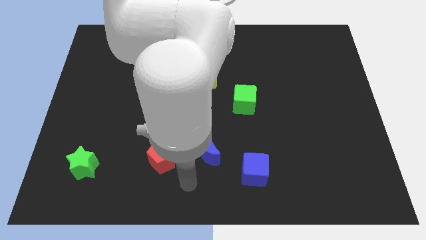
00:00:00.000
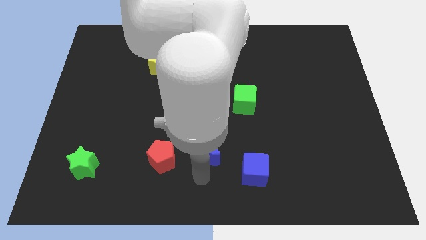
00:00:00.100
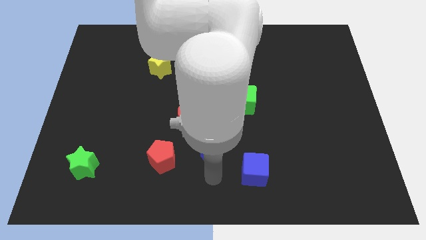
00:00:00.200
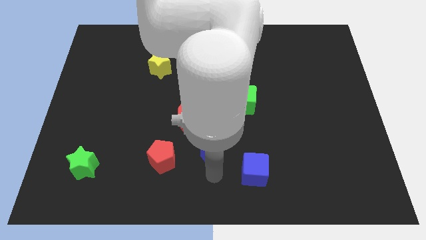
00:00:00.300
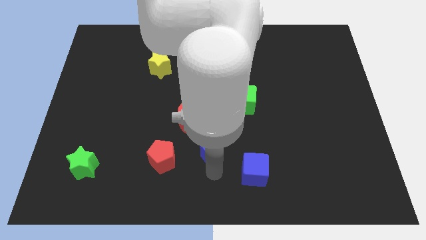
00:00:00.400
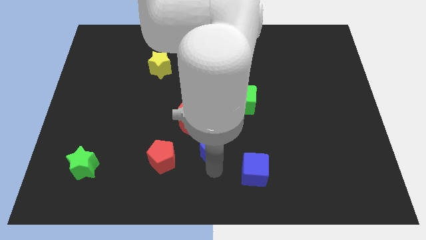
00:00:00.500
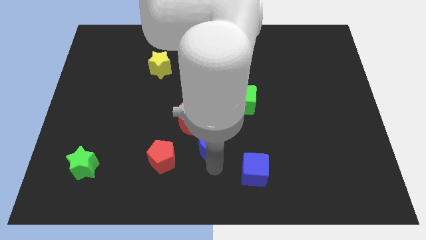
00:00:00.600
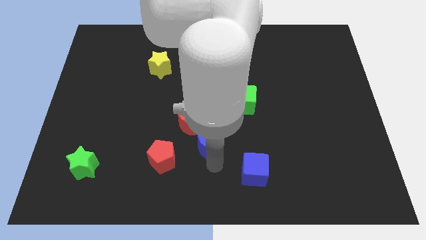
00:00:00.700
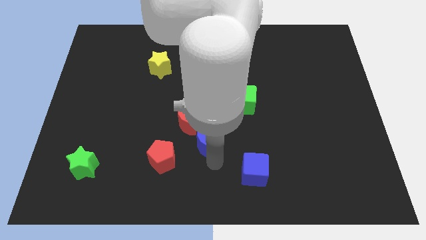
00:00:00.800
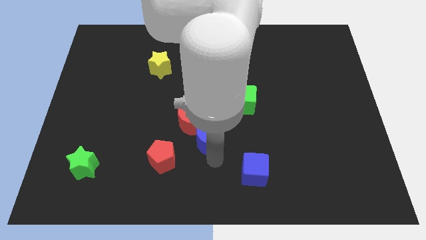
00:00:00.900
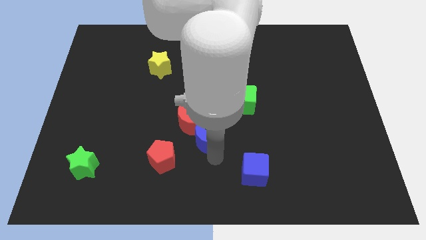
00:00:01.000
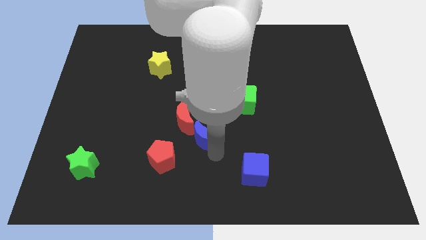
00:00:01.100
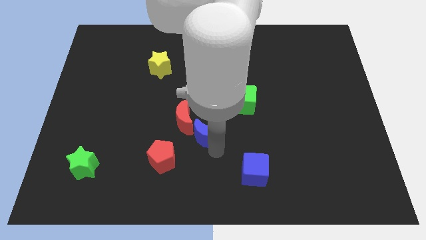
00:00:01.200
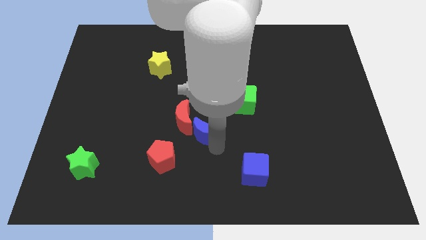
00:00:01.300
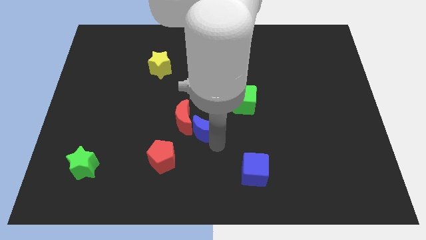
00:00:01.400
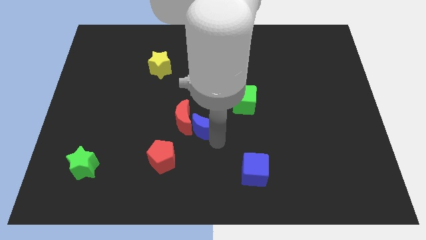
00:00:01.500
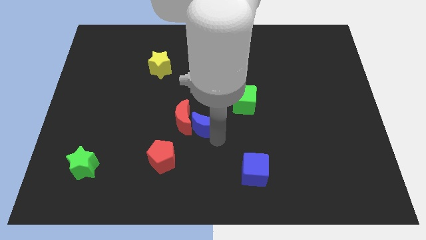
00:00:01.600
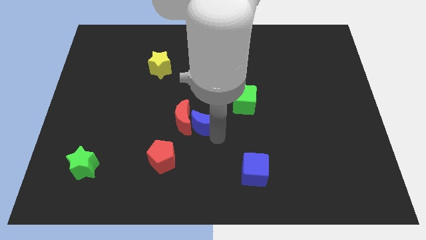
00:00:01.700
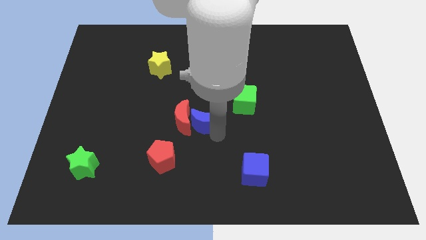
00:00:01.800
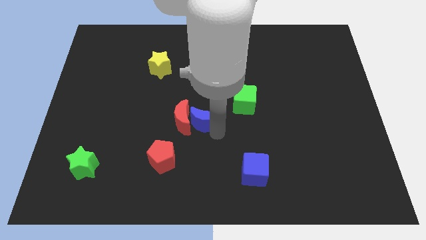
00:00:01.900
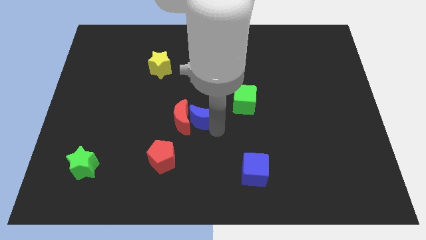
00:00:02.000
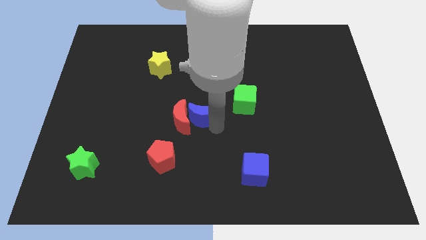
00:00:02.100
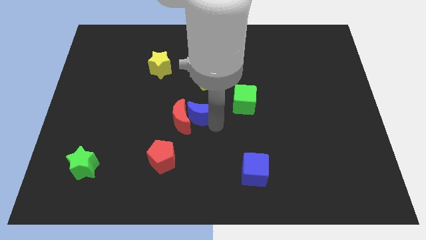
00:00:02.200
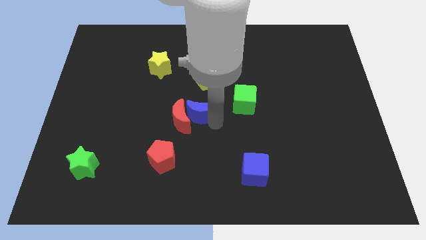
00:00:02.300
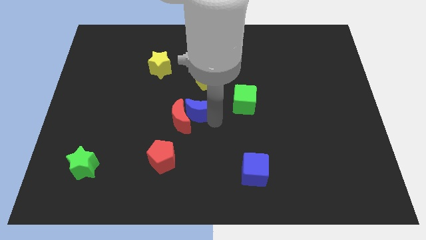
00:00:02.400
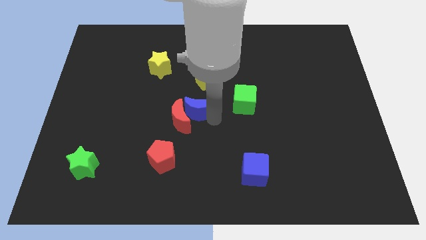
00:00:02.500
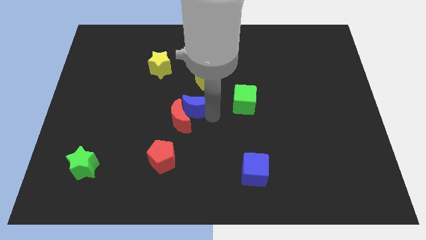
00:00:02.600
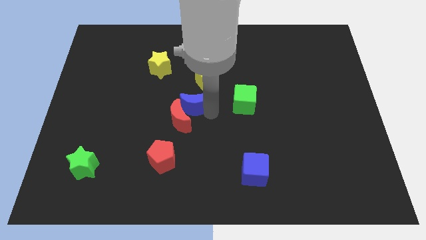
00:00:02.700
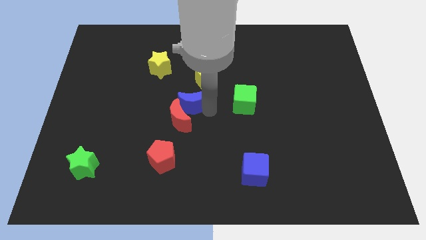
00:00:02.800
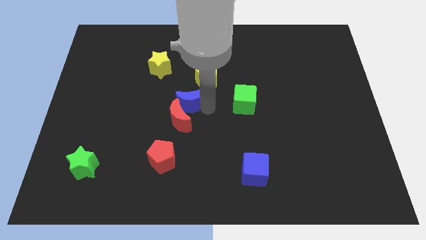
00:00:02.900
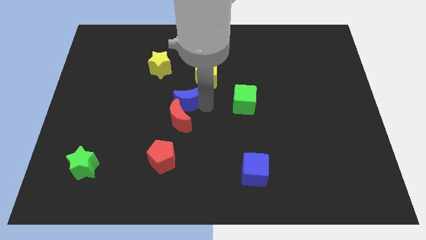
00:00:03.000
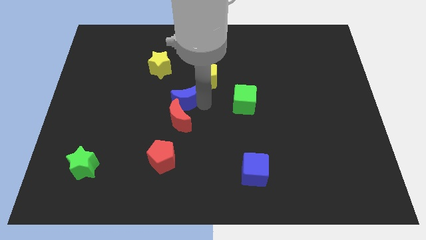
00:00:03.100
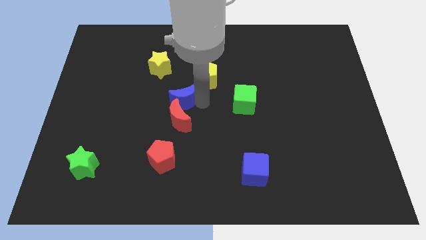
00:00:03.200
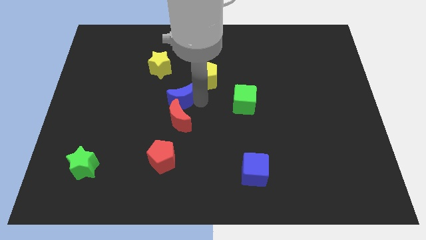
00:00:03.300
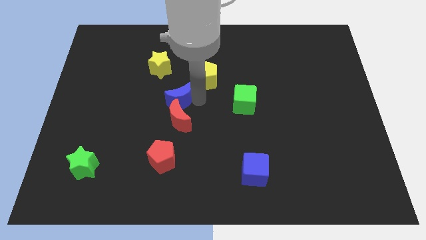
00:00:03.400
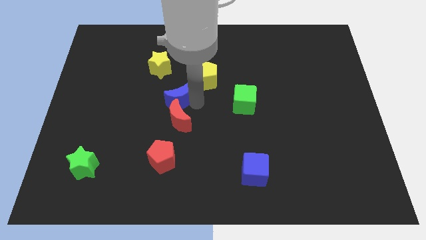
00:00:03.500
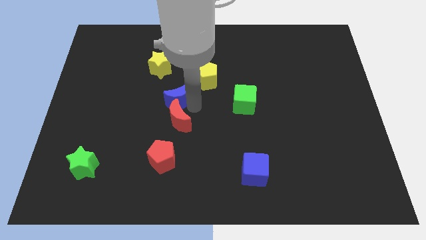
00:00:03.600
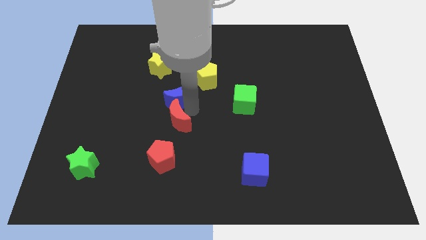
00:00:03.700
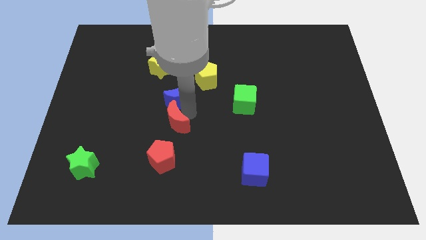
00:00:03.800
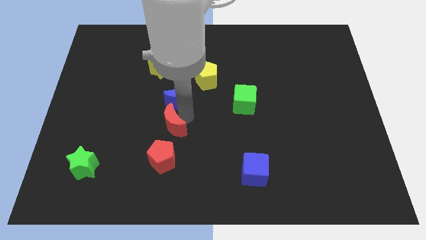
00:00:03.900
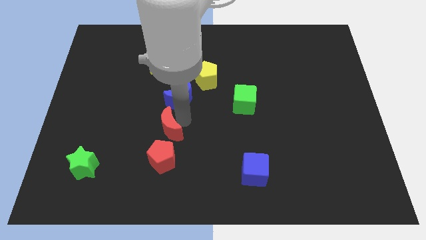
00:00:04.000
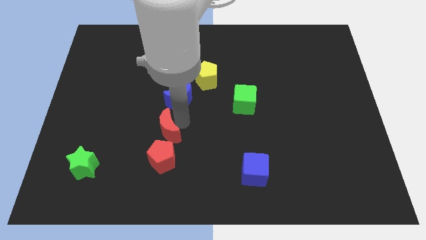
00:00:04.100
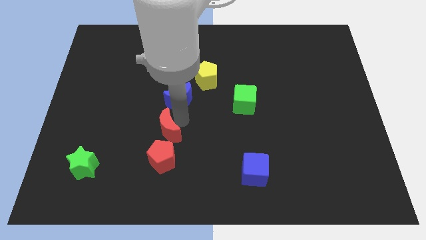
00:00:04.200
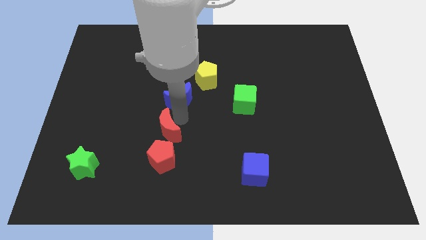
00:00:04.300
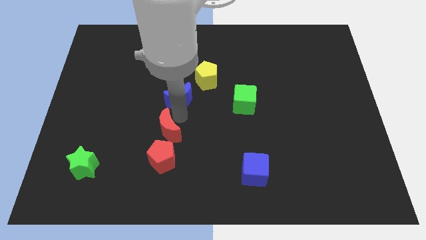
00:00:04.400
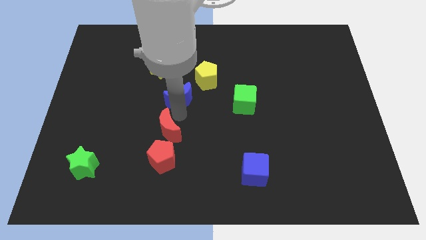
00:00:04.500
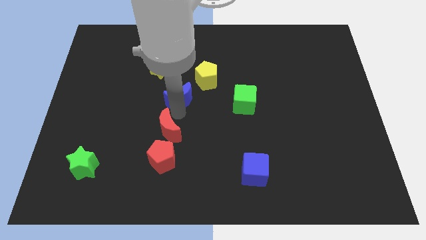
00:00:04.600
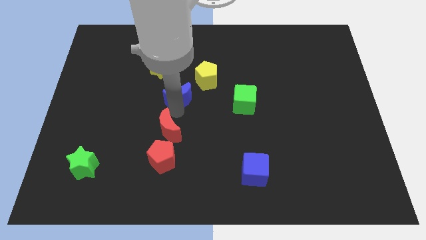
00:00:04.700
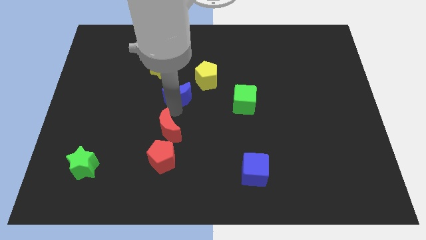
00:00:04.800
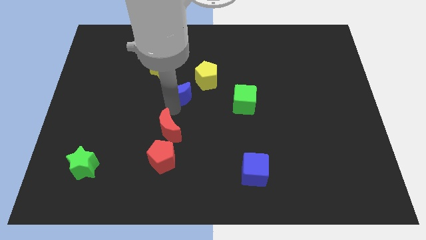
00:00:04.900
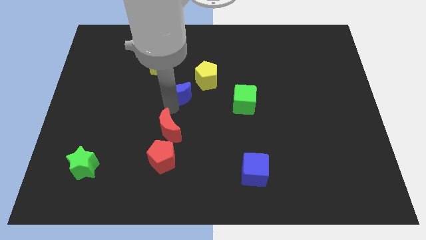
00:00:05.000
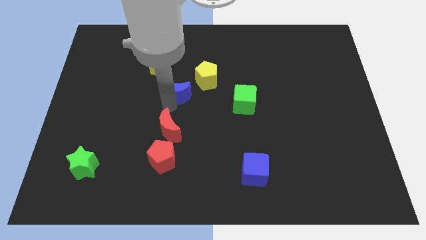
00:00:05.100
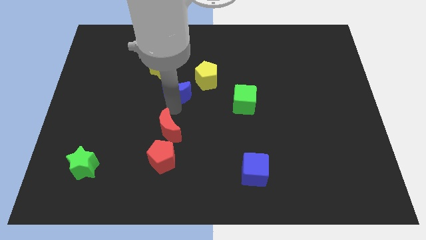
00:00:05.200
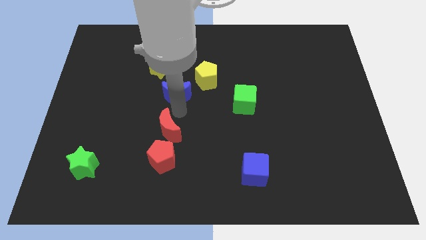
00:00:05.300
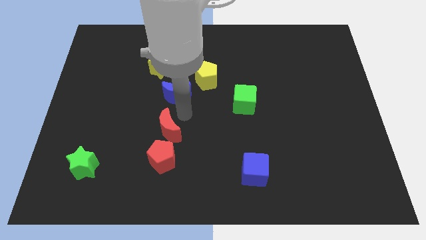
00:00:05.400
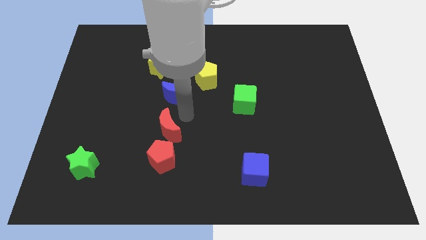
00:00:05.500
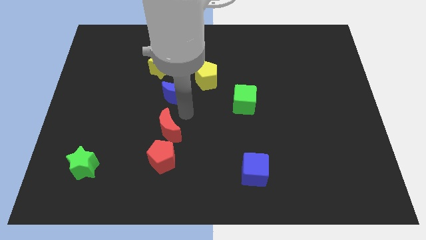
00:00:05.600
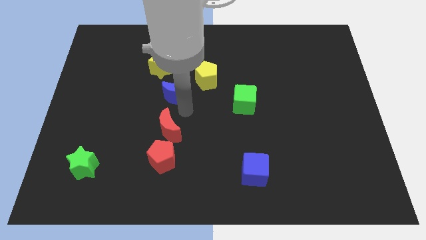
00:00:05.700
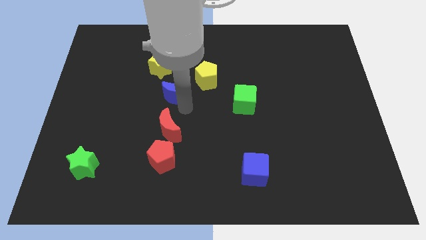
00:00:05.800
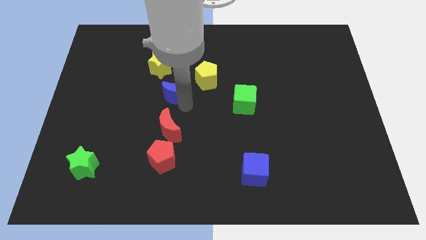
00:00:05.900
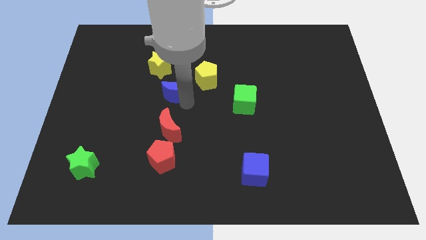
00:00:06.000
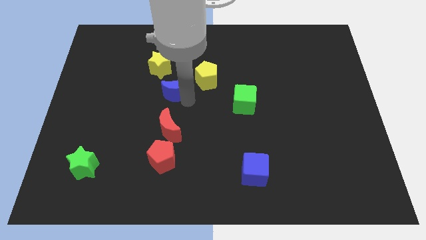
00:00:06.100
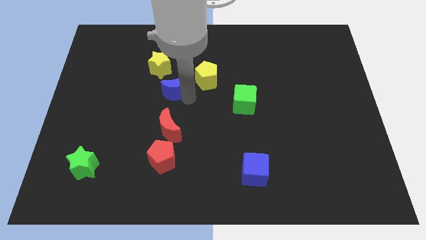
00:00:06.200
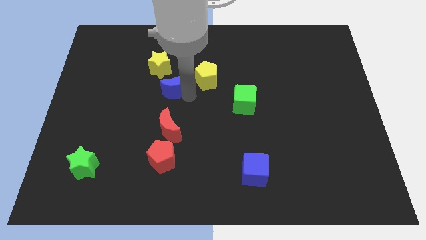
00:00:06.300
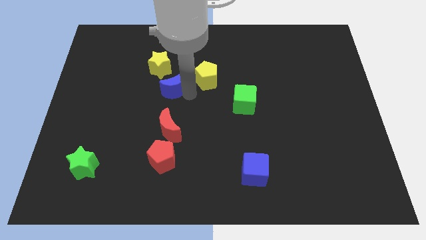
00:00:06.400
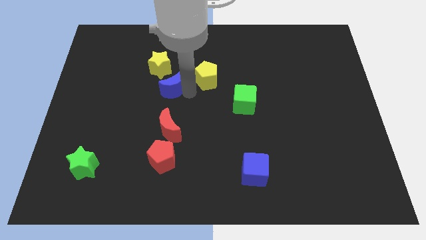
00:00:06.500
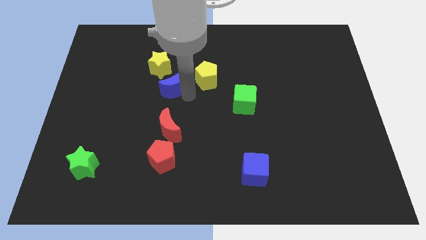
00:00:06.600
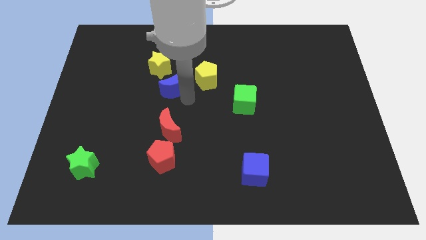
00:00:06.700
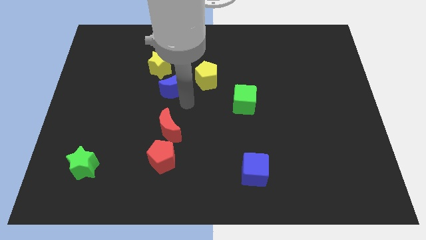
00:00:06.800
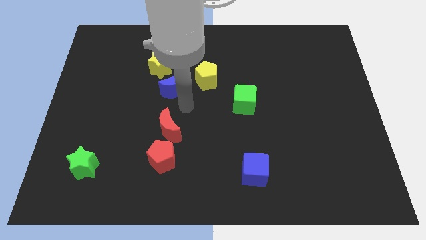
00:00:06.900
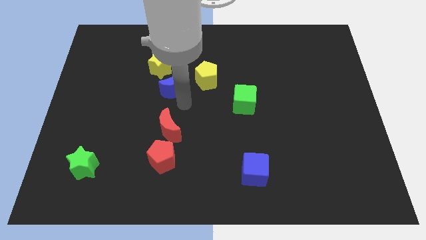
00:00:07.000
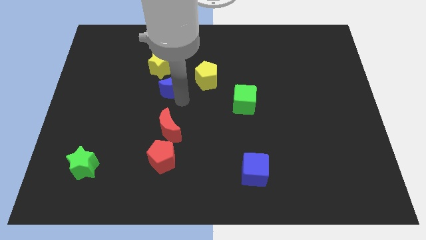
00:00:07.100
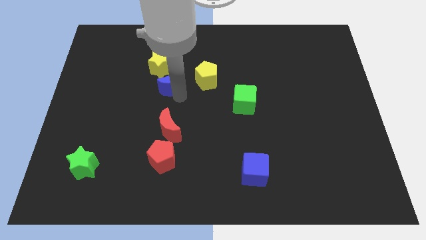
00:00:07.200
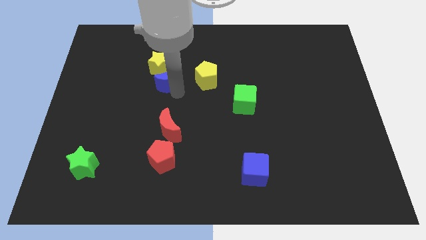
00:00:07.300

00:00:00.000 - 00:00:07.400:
slide the blue moon next to the yellow star
